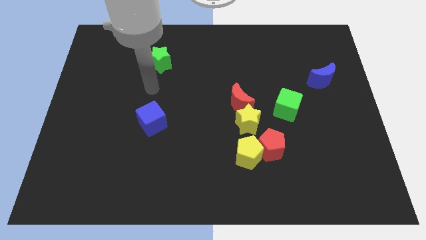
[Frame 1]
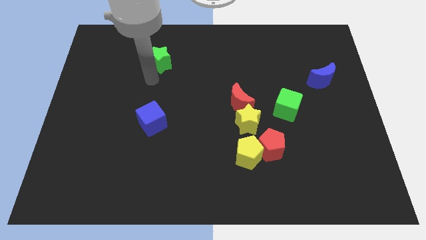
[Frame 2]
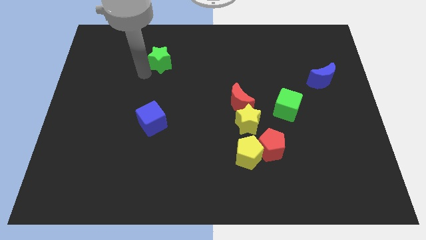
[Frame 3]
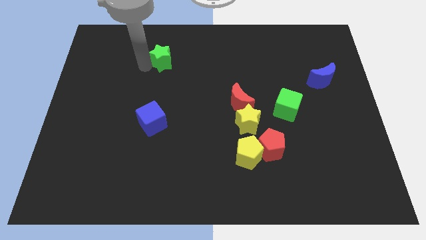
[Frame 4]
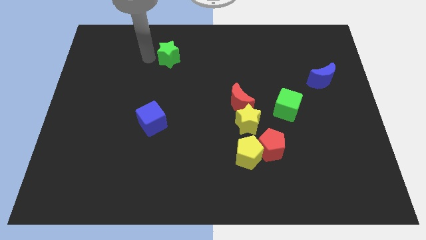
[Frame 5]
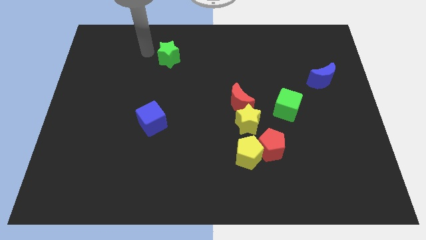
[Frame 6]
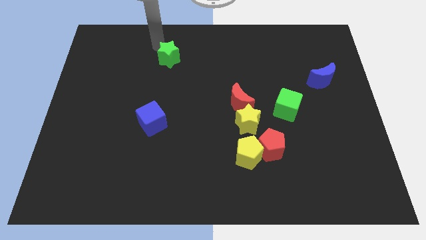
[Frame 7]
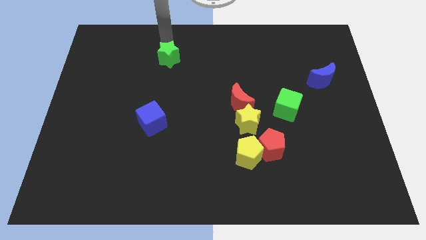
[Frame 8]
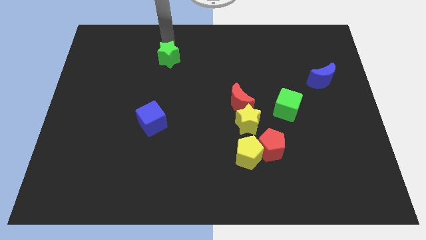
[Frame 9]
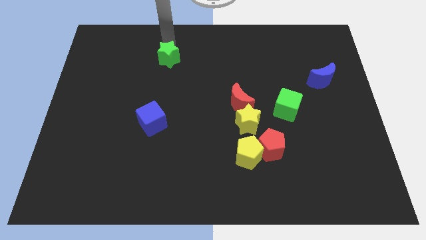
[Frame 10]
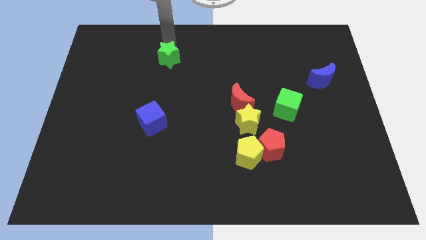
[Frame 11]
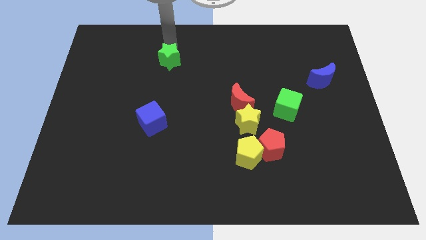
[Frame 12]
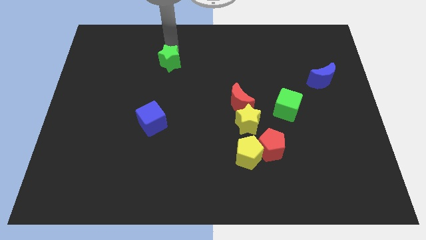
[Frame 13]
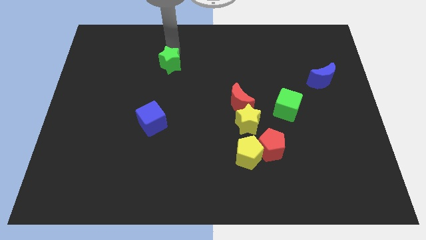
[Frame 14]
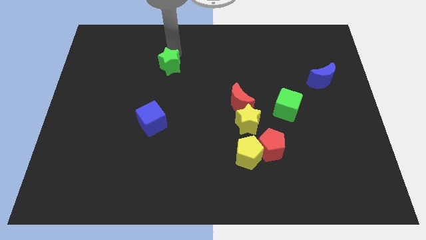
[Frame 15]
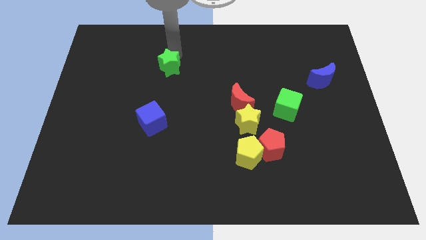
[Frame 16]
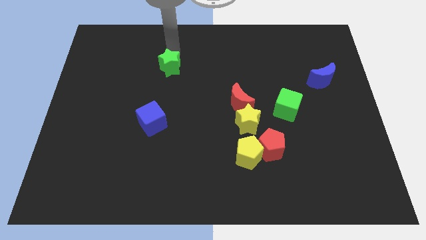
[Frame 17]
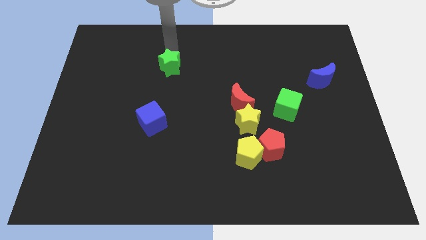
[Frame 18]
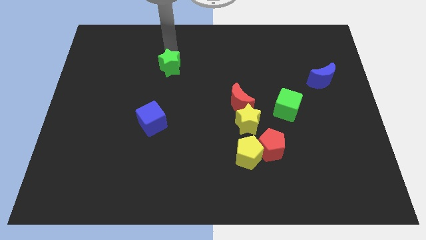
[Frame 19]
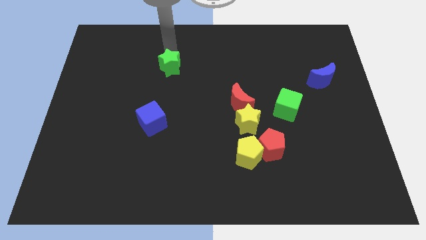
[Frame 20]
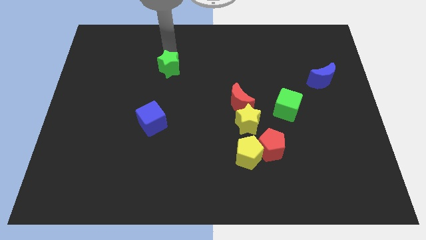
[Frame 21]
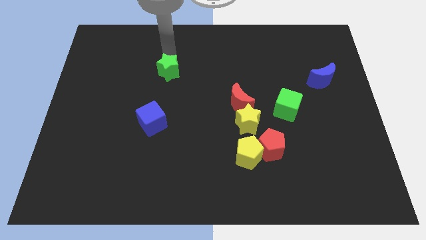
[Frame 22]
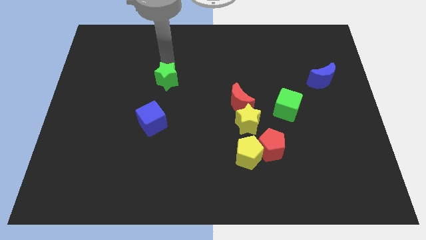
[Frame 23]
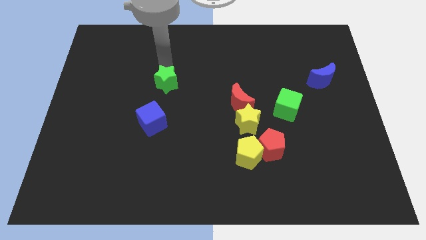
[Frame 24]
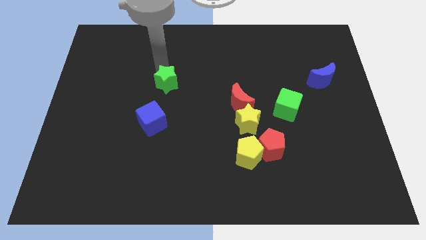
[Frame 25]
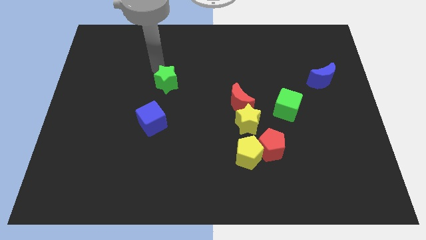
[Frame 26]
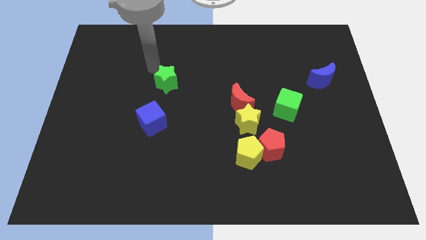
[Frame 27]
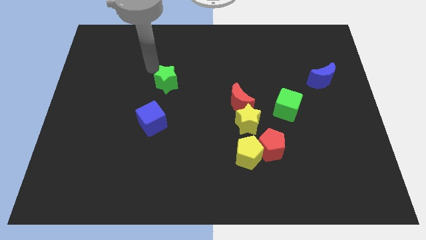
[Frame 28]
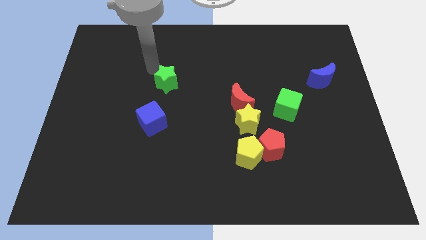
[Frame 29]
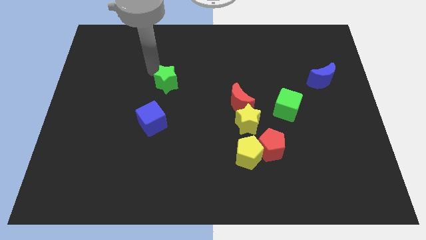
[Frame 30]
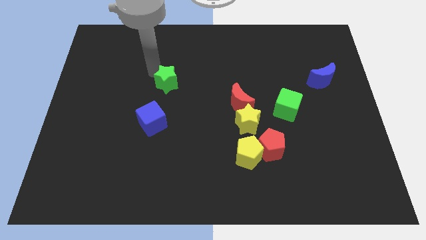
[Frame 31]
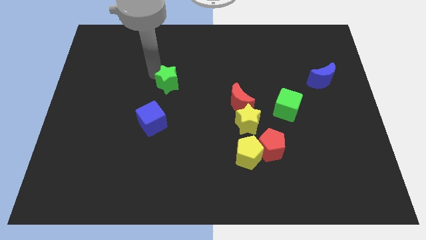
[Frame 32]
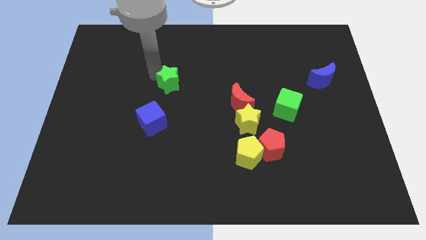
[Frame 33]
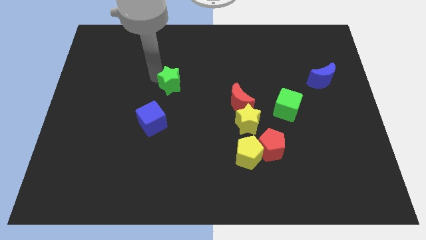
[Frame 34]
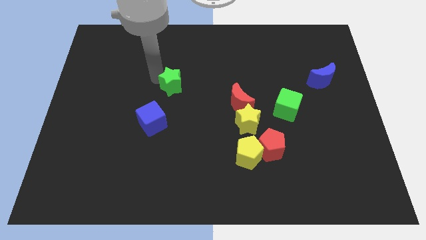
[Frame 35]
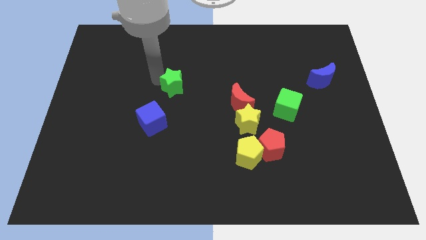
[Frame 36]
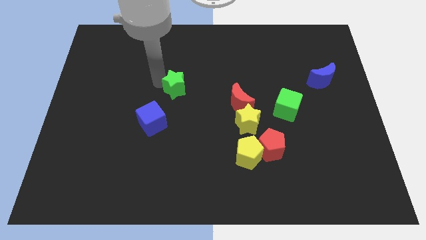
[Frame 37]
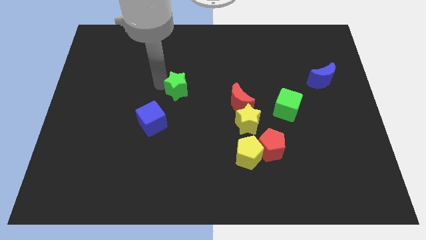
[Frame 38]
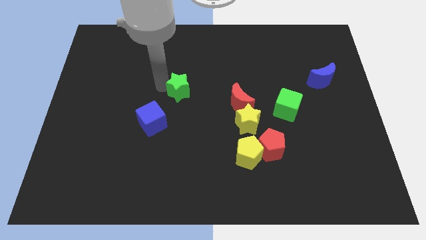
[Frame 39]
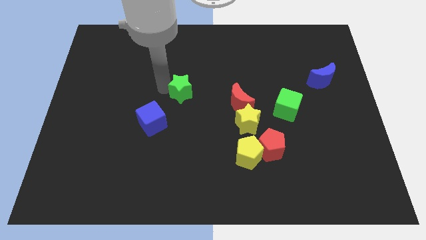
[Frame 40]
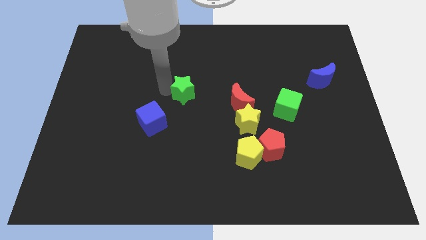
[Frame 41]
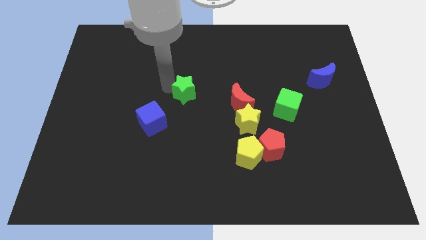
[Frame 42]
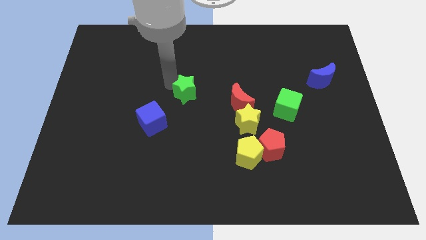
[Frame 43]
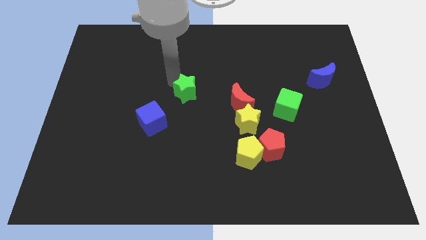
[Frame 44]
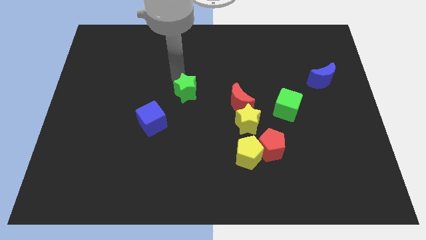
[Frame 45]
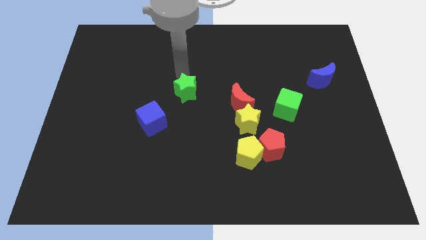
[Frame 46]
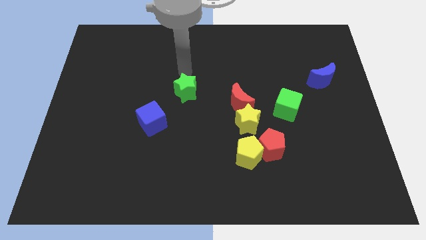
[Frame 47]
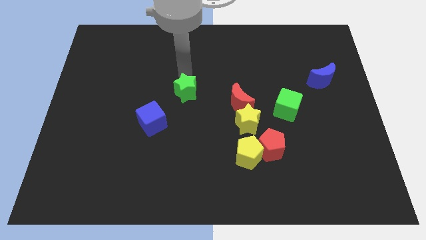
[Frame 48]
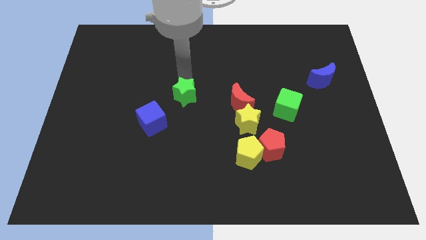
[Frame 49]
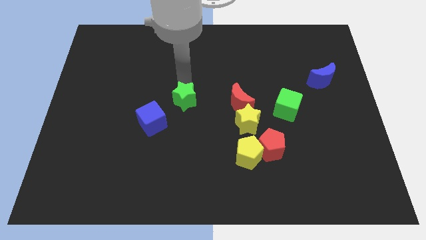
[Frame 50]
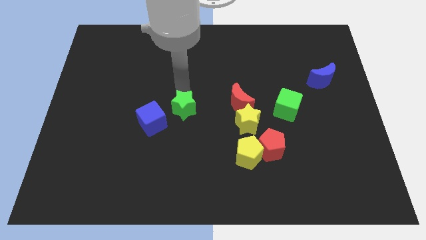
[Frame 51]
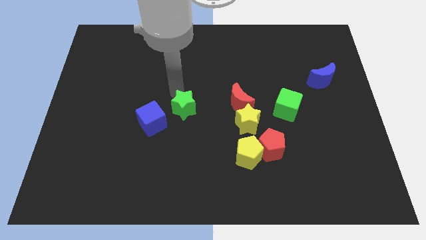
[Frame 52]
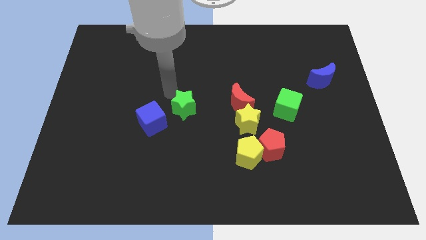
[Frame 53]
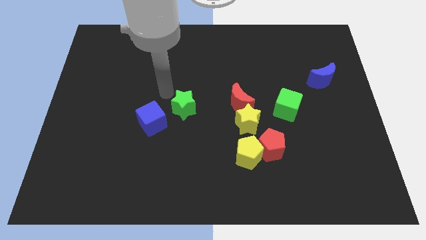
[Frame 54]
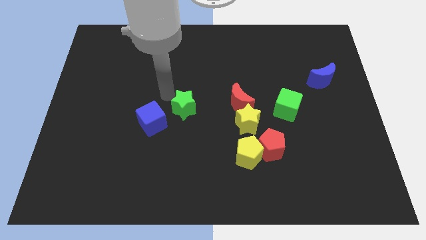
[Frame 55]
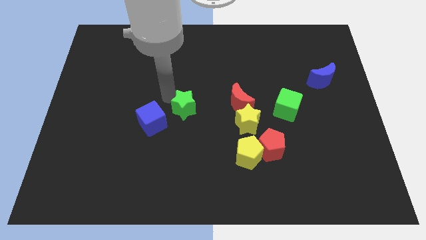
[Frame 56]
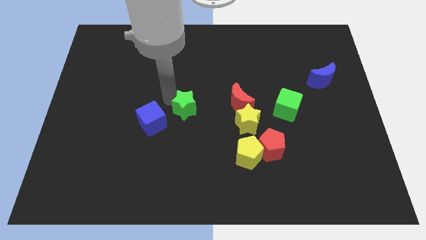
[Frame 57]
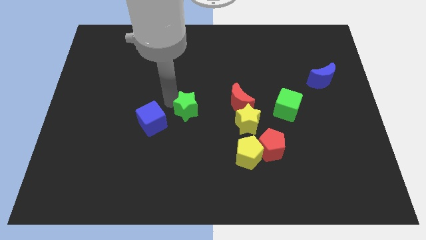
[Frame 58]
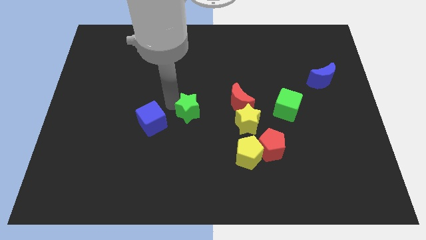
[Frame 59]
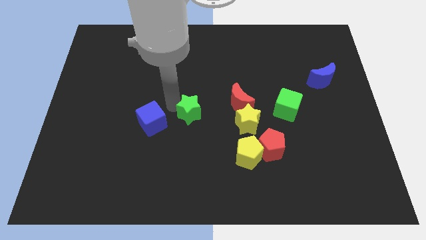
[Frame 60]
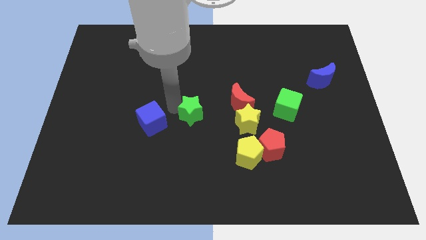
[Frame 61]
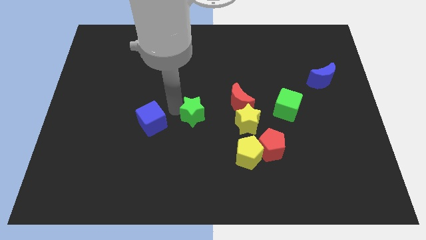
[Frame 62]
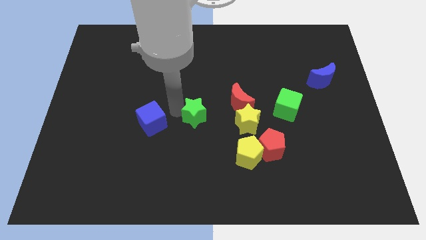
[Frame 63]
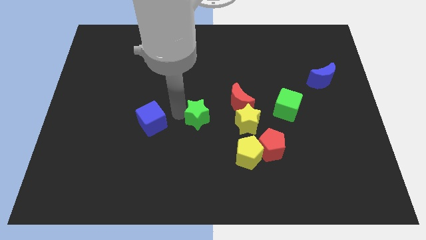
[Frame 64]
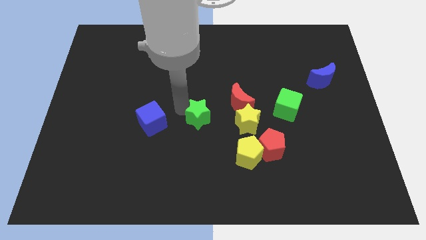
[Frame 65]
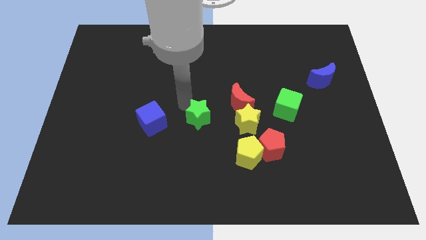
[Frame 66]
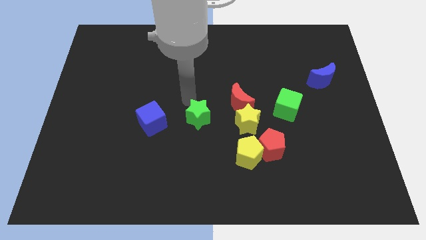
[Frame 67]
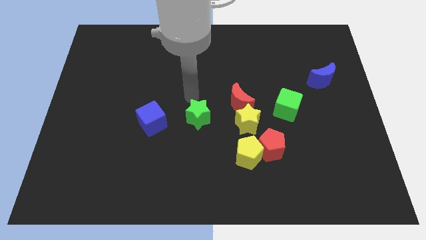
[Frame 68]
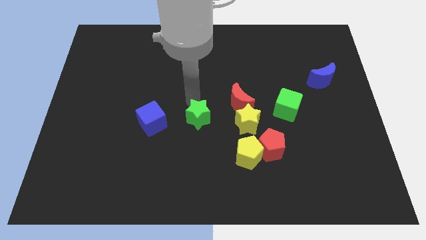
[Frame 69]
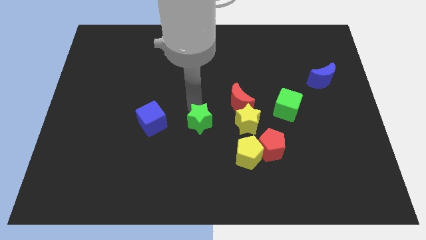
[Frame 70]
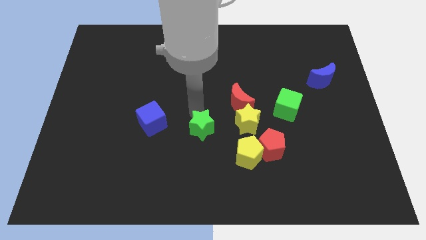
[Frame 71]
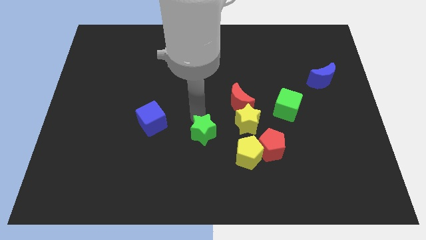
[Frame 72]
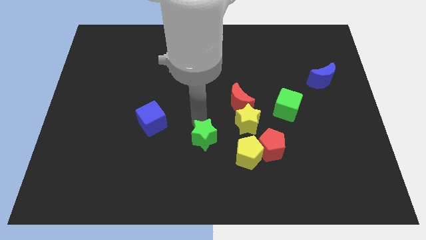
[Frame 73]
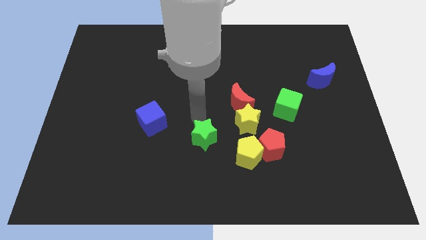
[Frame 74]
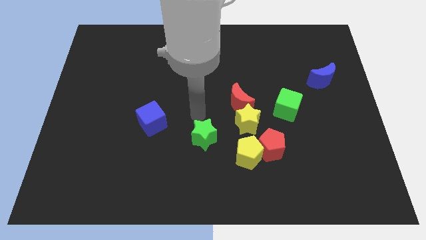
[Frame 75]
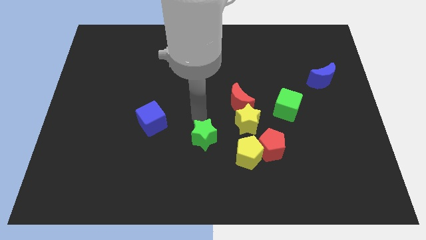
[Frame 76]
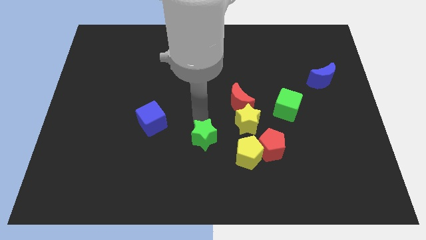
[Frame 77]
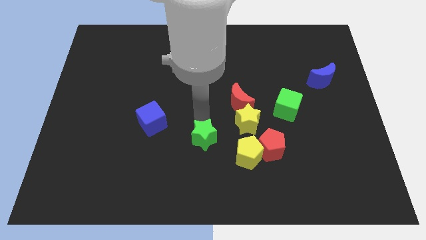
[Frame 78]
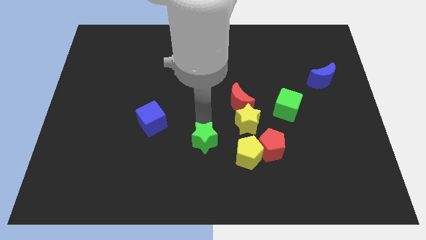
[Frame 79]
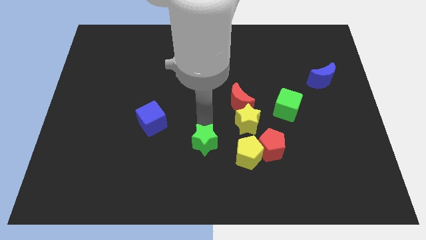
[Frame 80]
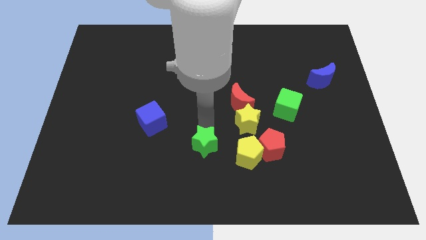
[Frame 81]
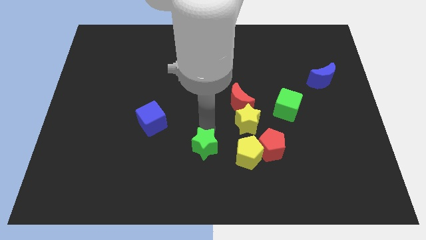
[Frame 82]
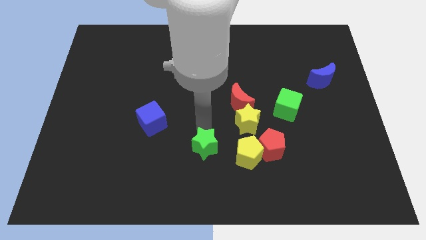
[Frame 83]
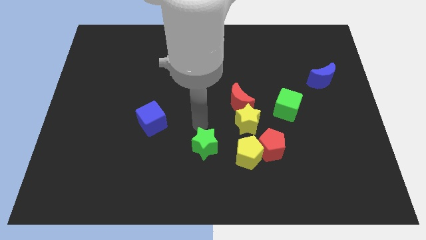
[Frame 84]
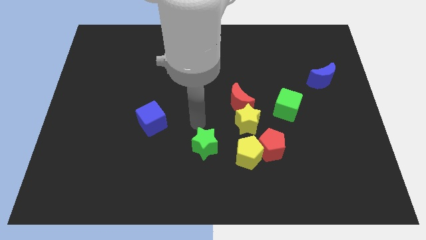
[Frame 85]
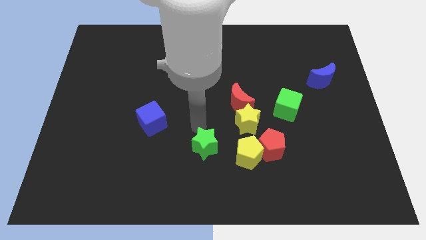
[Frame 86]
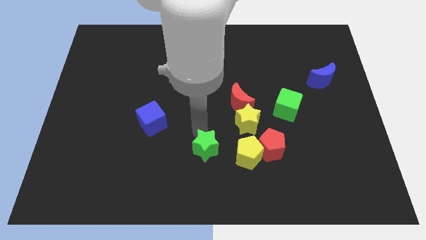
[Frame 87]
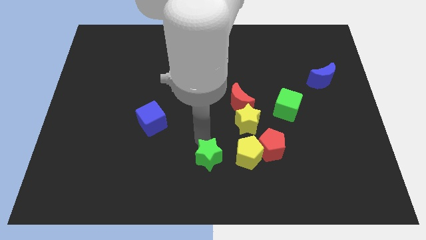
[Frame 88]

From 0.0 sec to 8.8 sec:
move the green star to the bottom side
